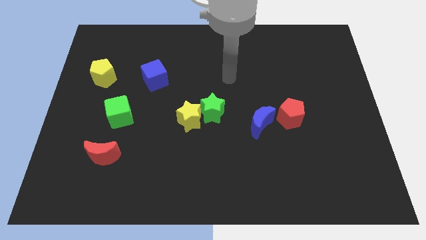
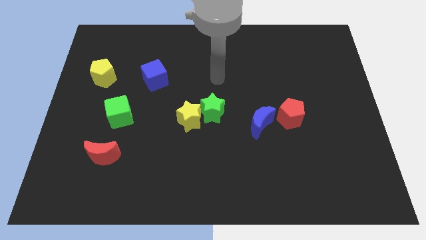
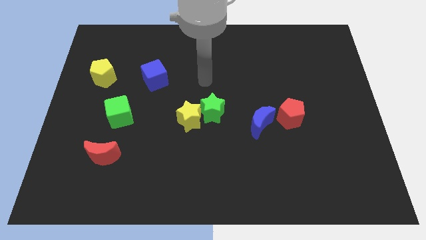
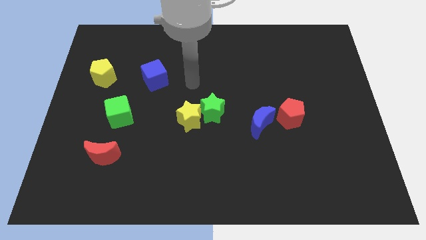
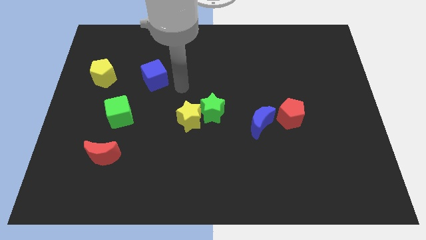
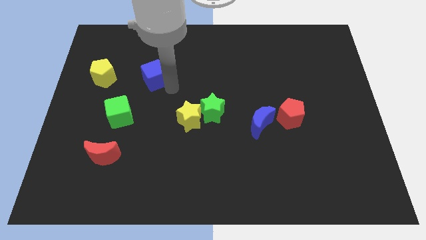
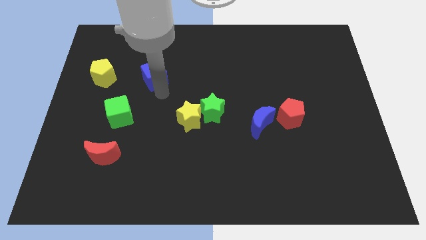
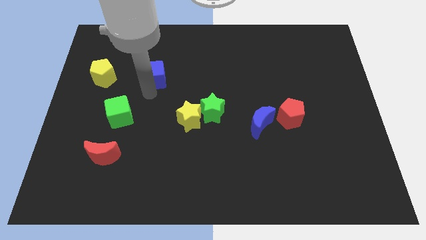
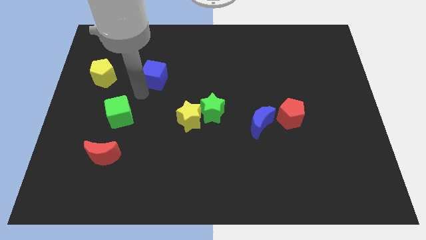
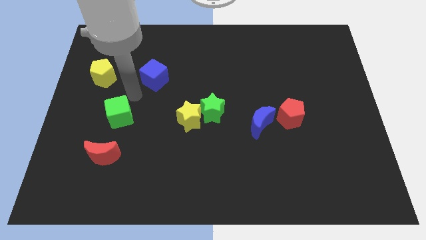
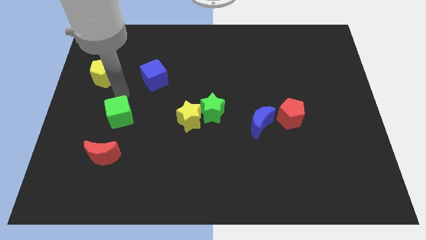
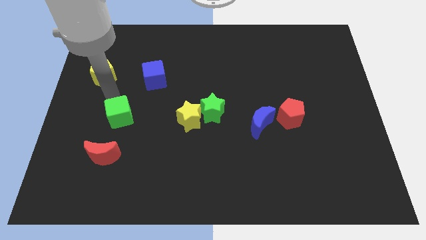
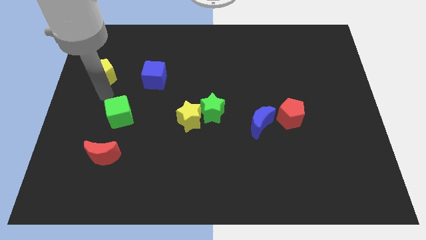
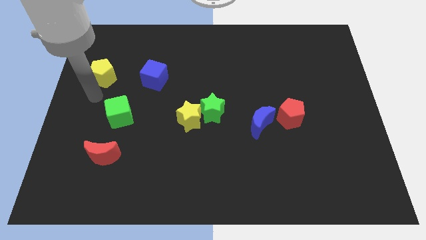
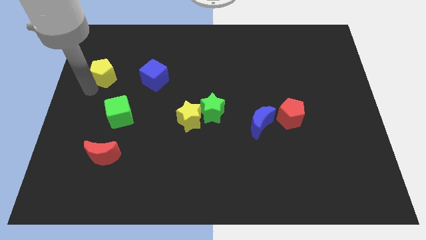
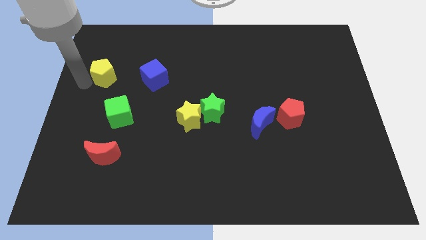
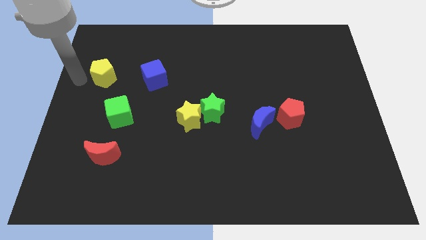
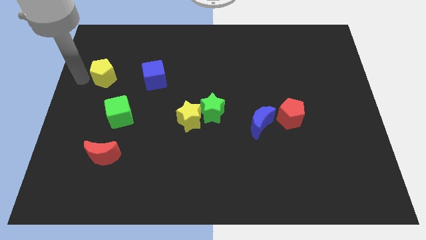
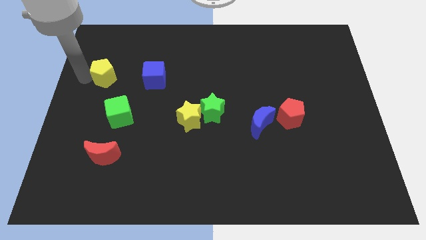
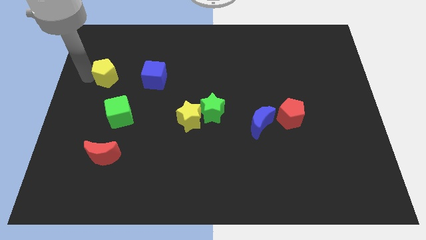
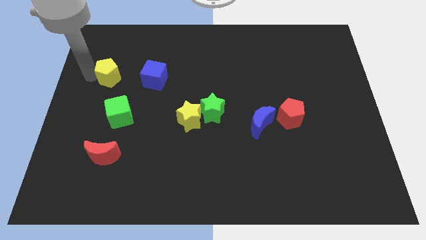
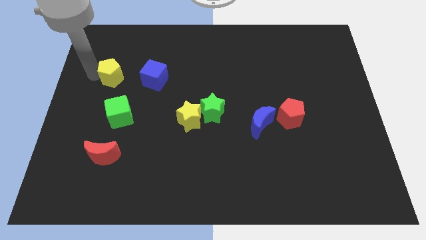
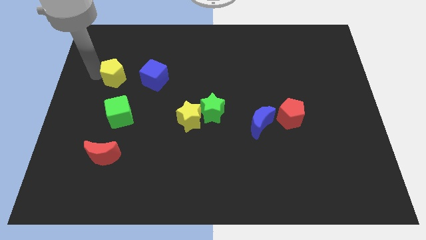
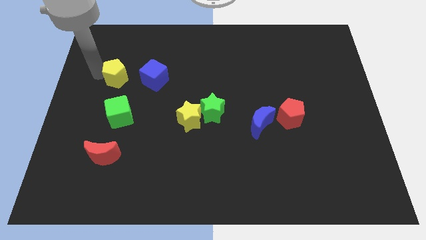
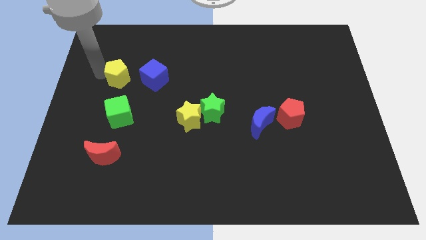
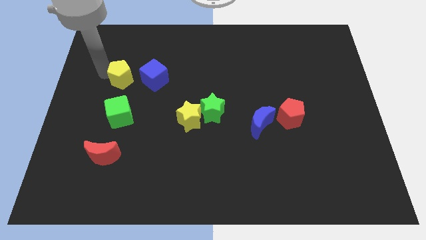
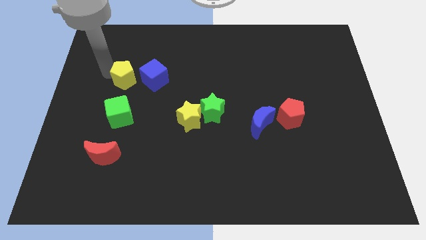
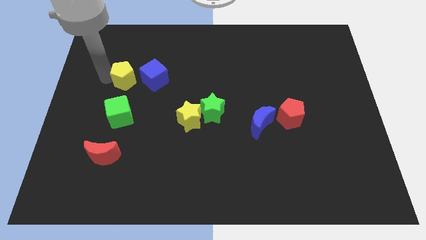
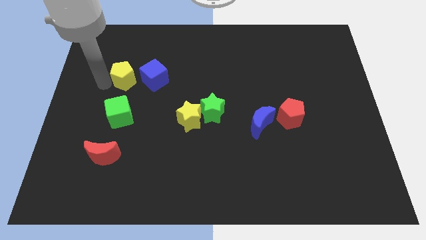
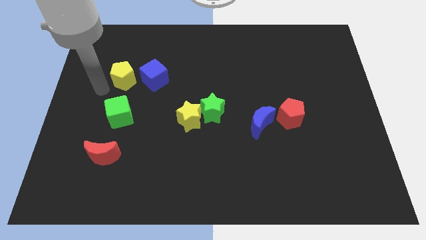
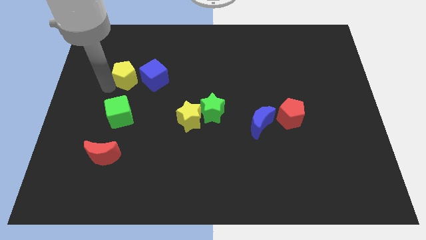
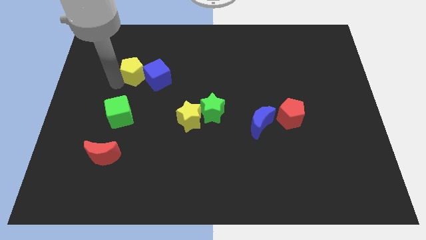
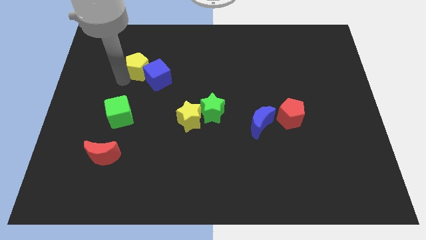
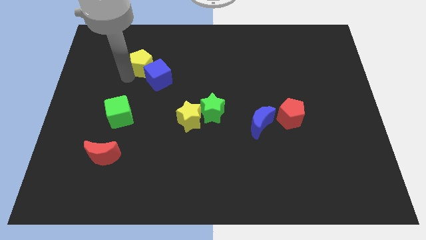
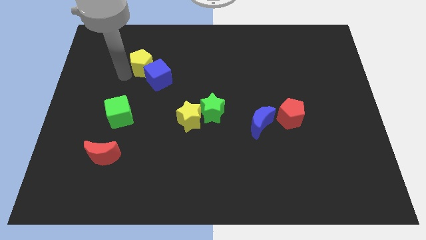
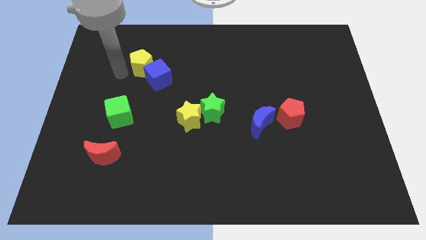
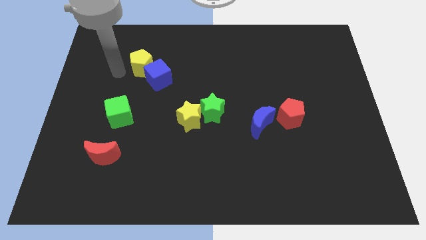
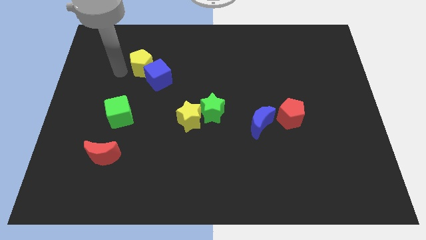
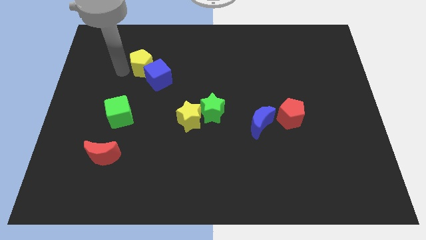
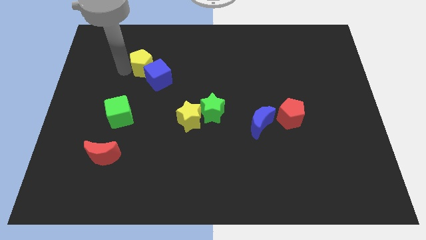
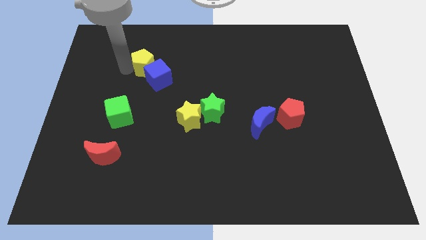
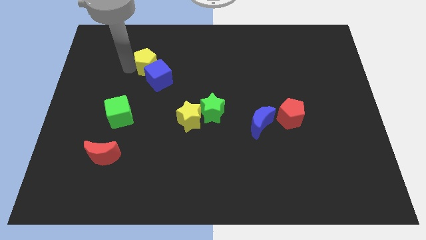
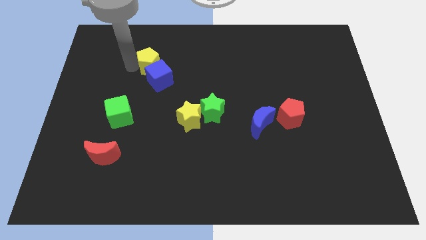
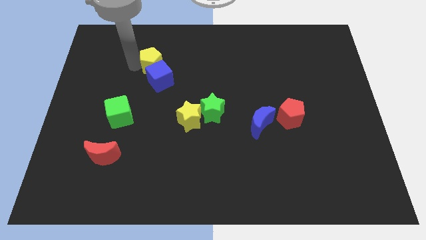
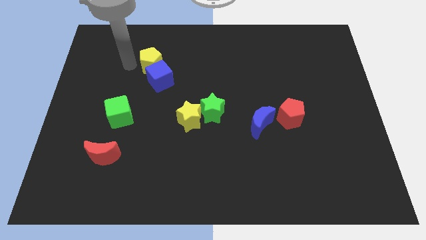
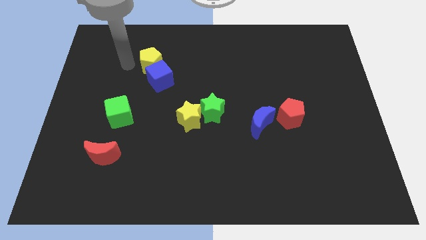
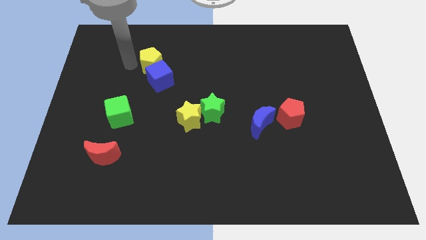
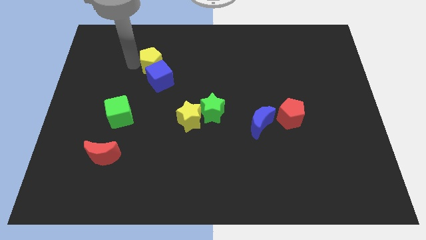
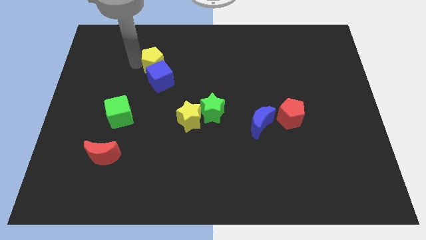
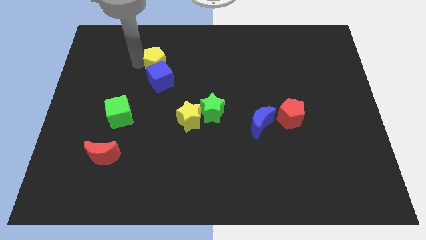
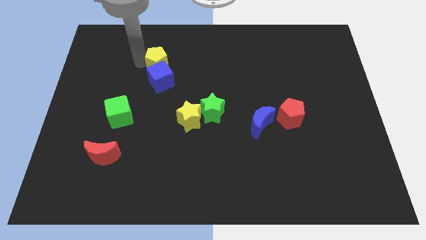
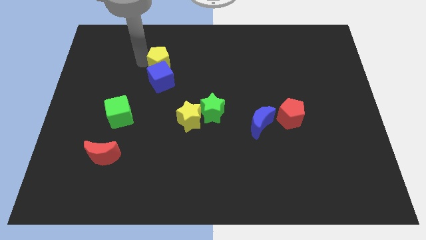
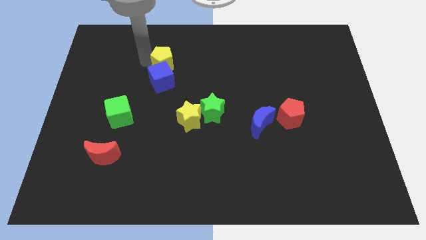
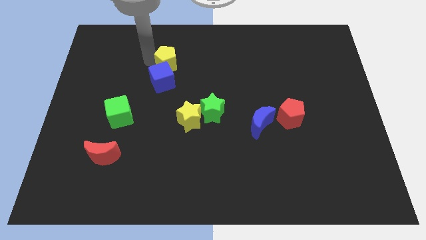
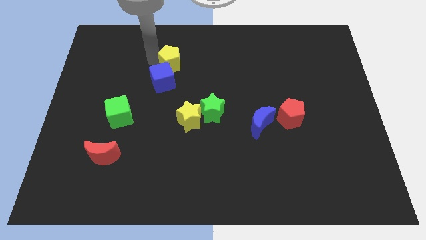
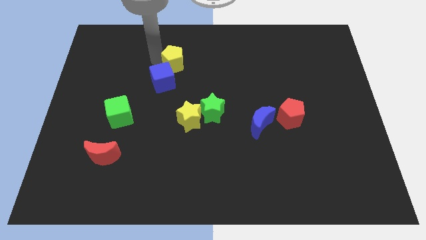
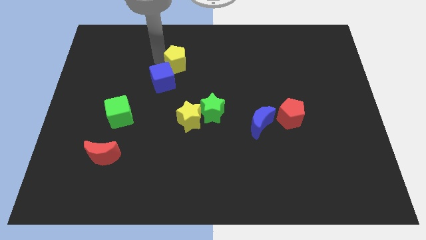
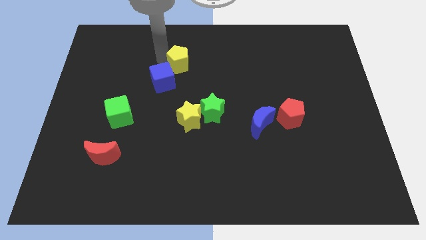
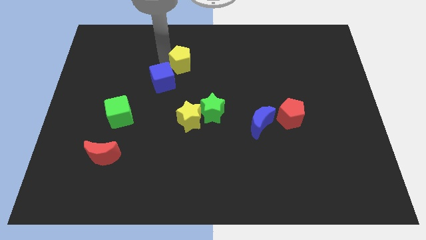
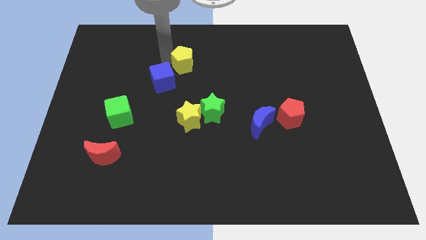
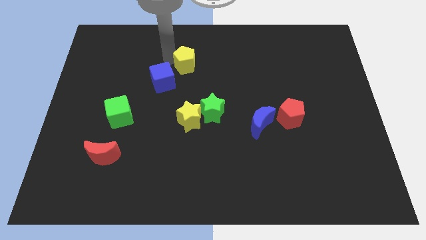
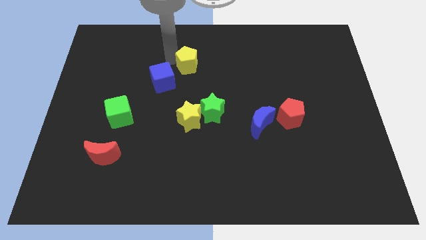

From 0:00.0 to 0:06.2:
push the yellow pentagon to the right

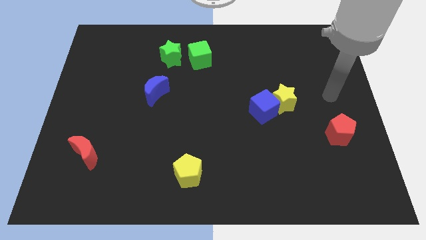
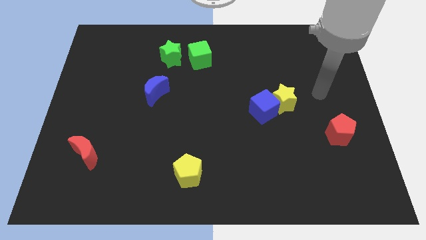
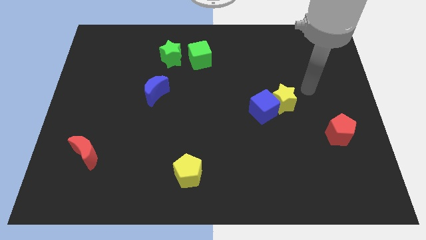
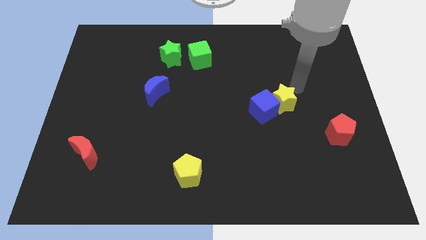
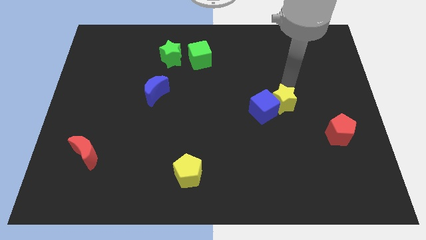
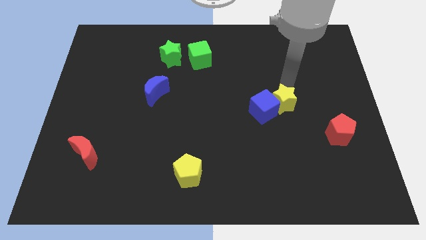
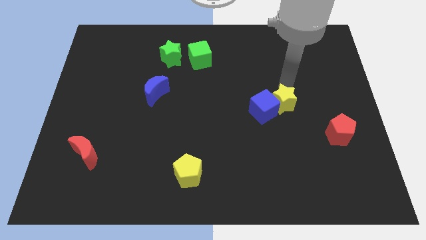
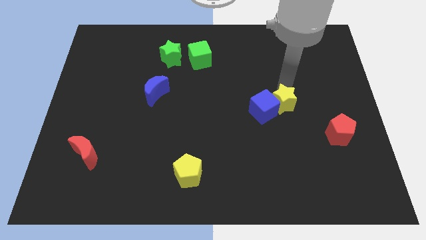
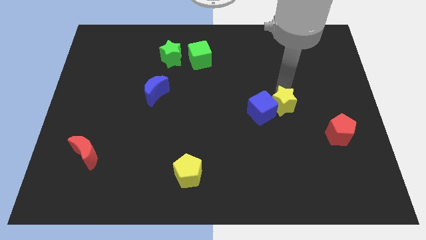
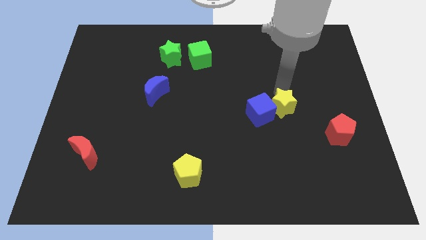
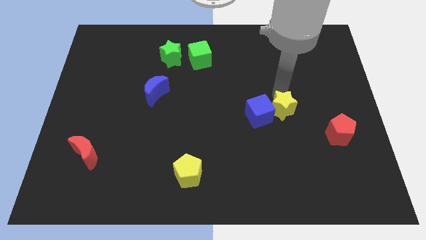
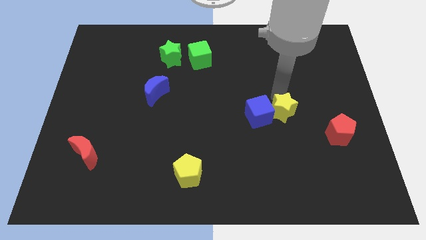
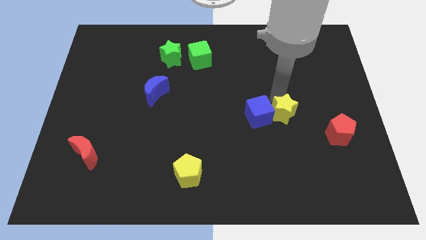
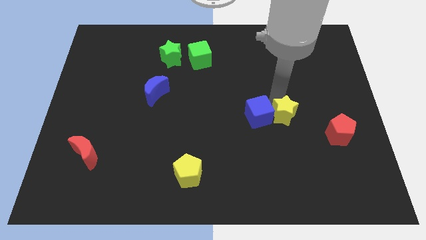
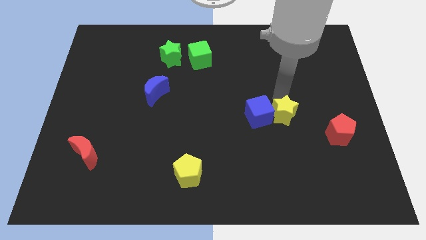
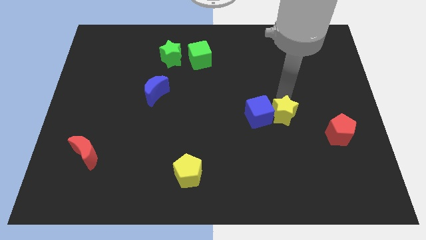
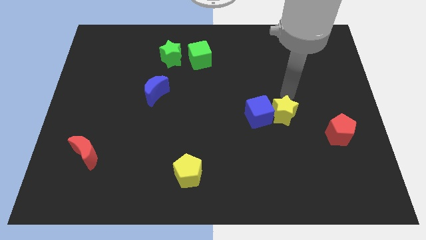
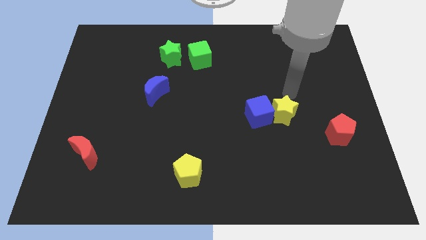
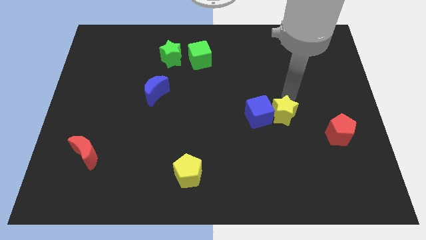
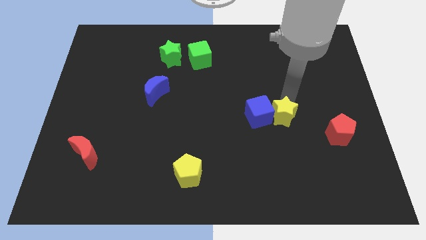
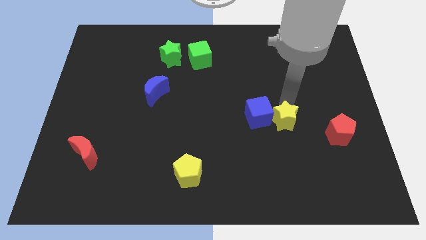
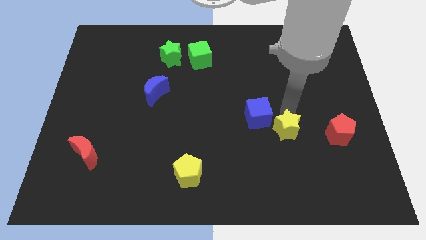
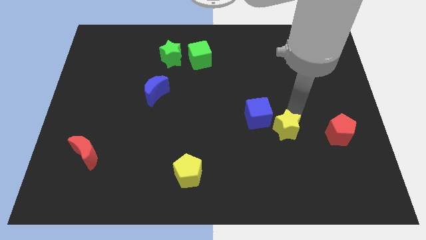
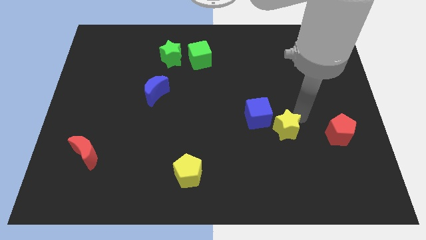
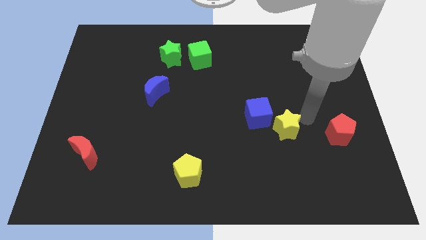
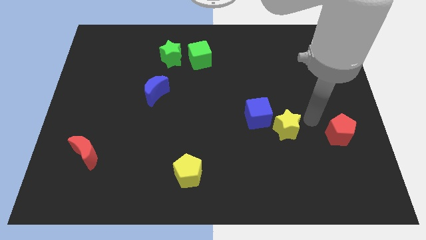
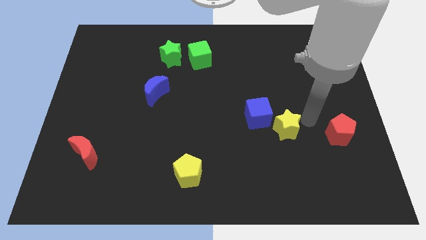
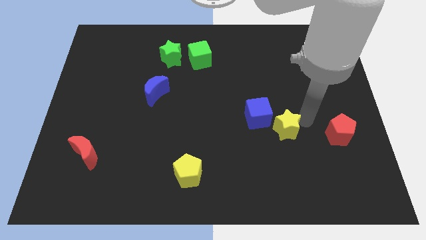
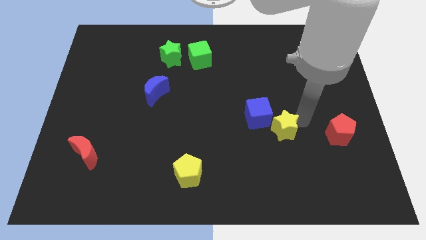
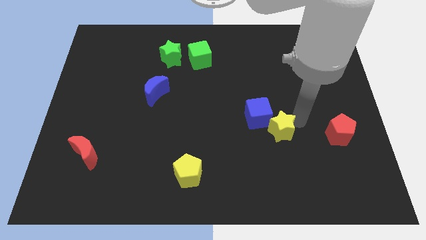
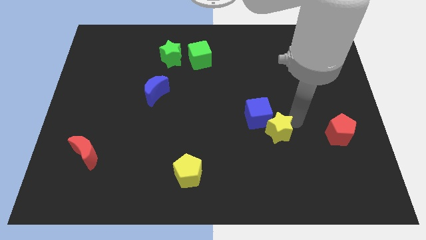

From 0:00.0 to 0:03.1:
move the yellow star down and then to the left a little bit
